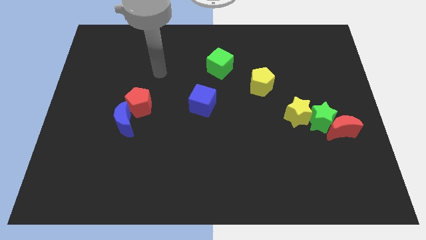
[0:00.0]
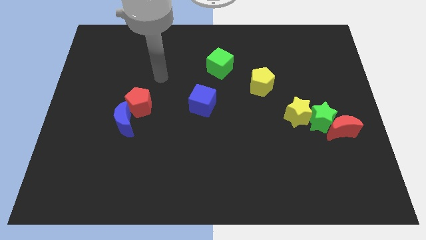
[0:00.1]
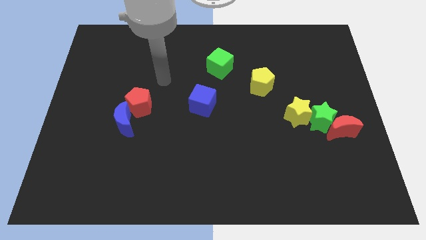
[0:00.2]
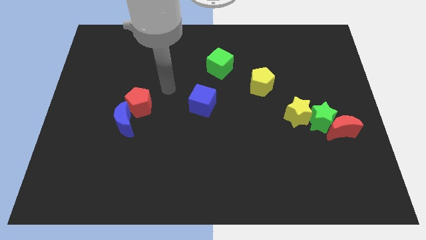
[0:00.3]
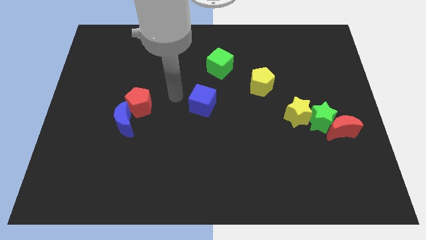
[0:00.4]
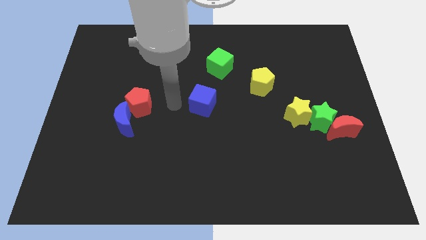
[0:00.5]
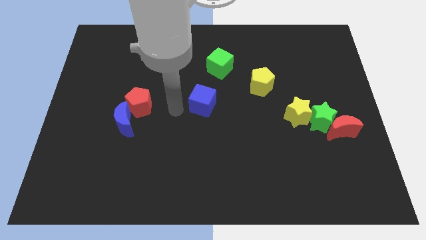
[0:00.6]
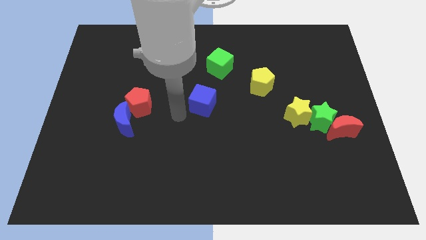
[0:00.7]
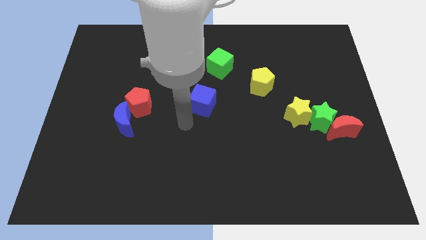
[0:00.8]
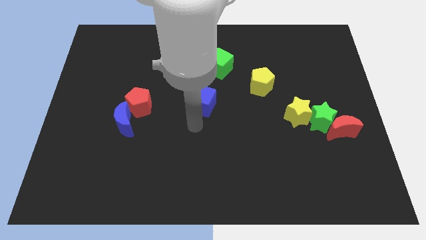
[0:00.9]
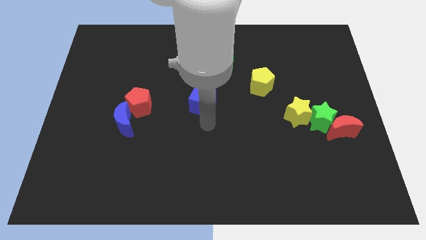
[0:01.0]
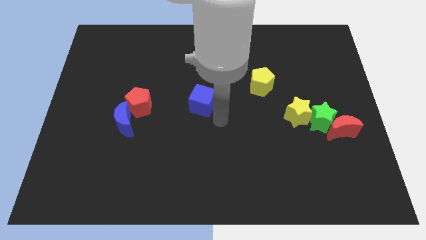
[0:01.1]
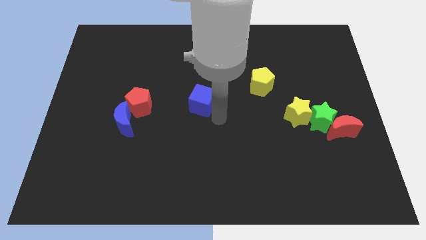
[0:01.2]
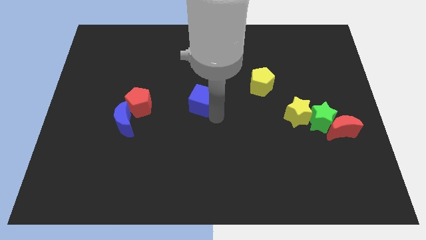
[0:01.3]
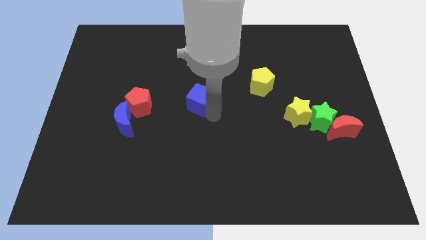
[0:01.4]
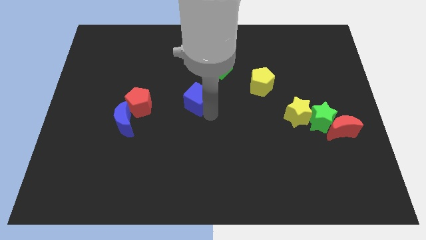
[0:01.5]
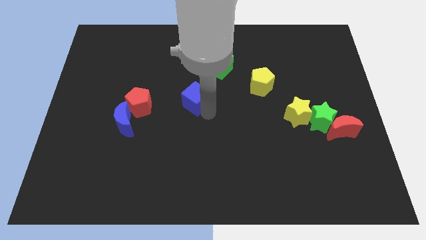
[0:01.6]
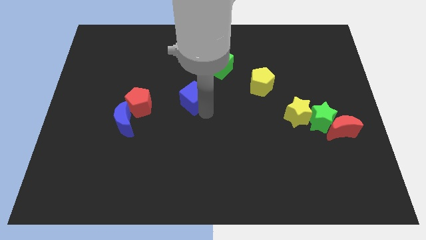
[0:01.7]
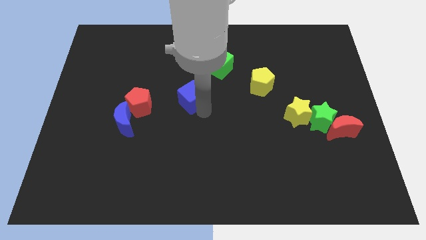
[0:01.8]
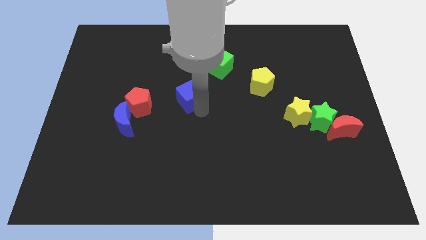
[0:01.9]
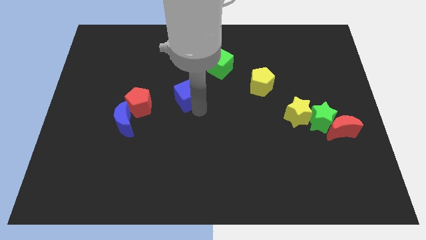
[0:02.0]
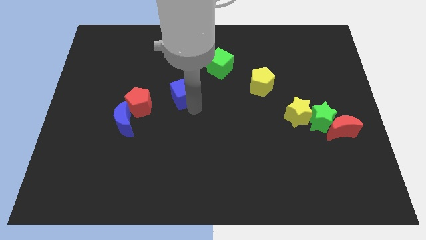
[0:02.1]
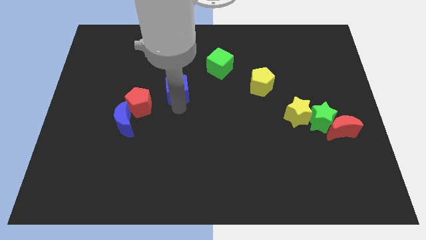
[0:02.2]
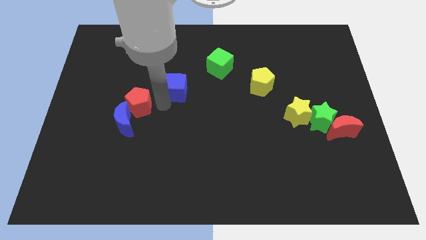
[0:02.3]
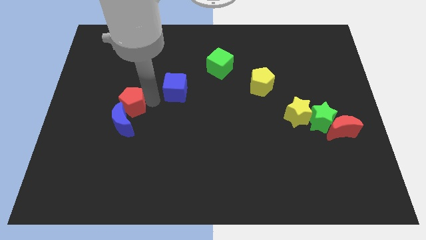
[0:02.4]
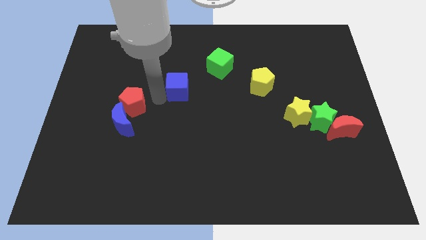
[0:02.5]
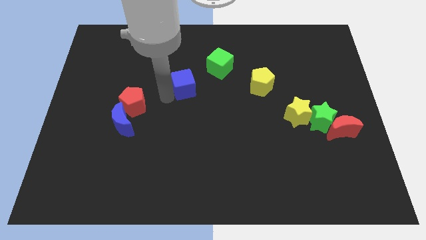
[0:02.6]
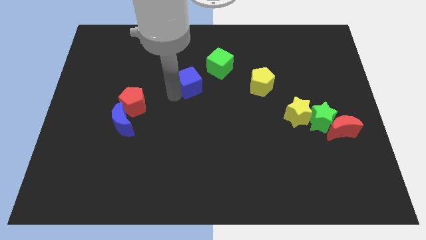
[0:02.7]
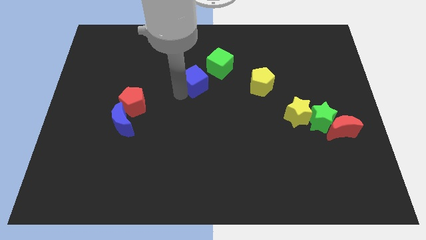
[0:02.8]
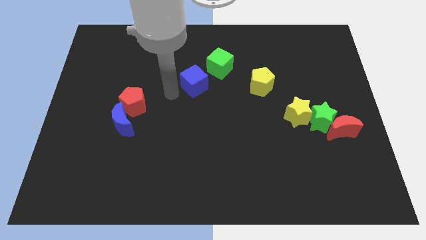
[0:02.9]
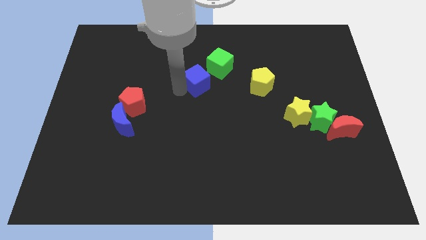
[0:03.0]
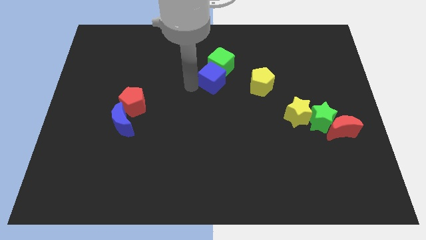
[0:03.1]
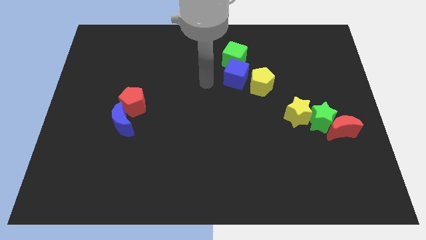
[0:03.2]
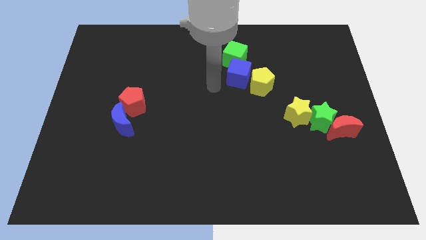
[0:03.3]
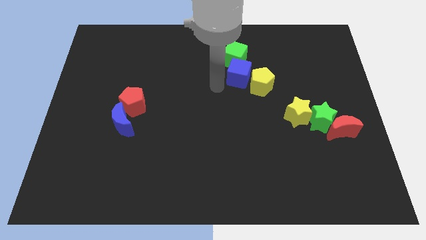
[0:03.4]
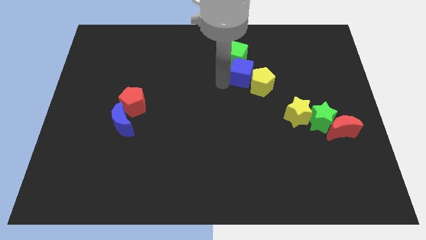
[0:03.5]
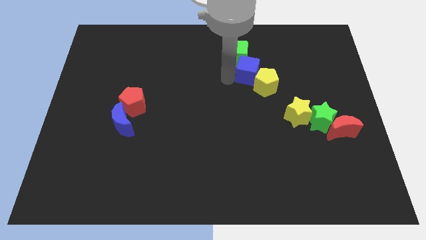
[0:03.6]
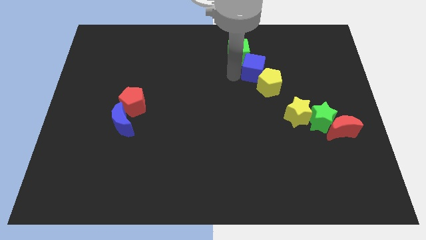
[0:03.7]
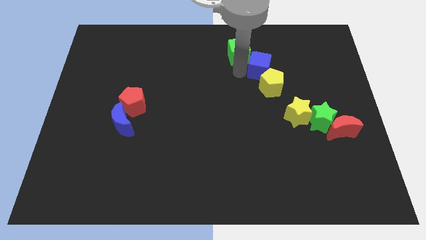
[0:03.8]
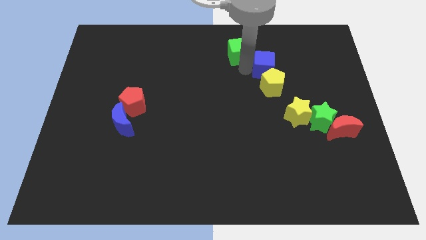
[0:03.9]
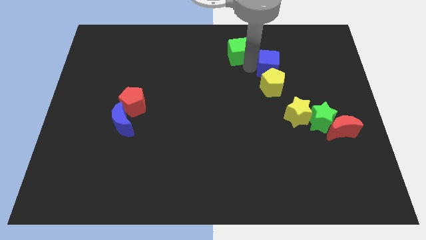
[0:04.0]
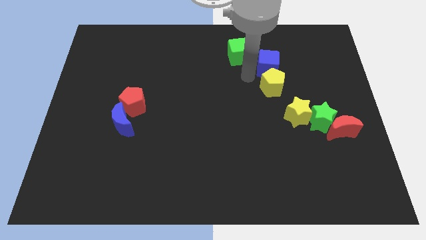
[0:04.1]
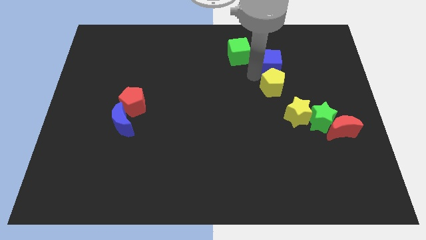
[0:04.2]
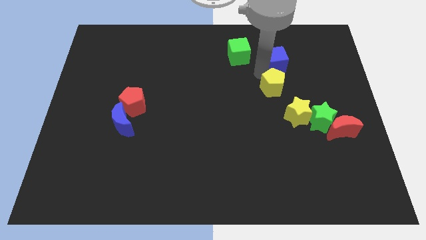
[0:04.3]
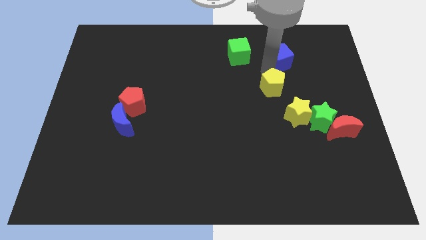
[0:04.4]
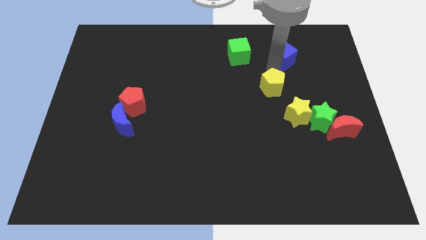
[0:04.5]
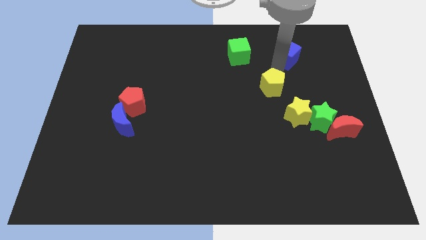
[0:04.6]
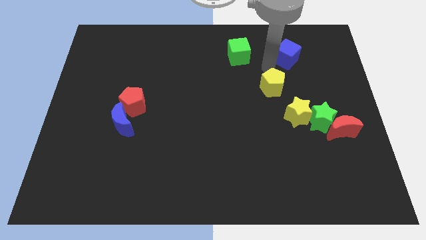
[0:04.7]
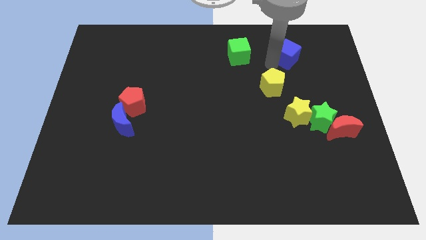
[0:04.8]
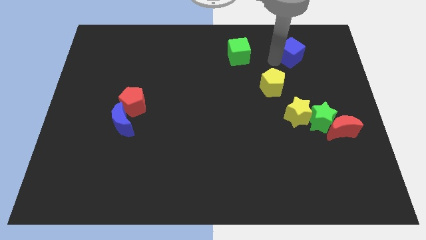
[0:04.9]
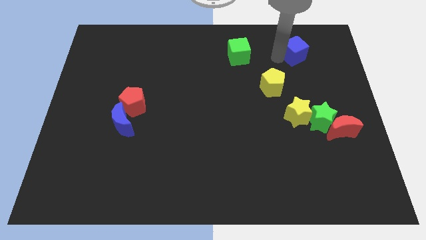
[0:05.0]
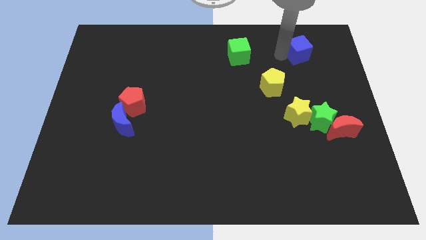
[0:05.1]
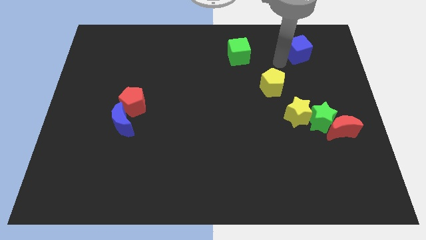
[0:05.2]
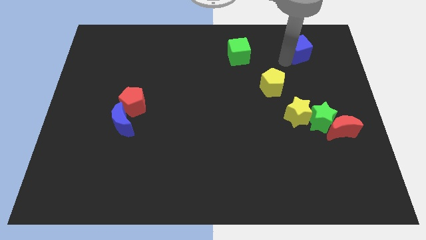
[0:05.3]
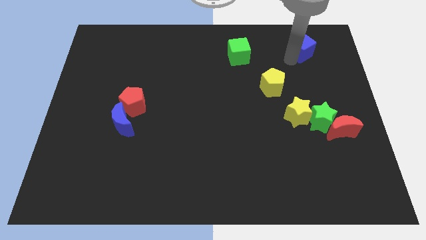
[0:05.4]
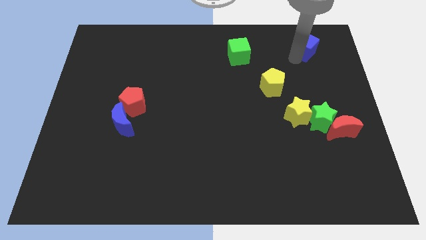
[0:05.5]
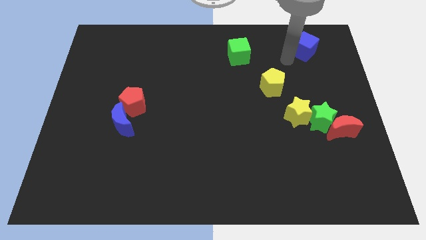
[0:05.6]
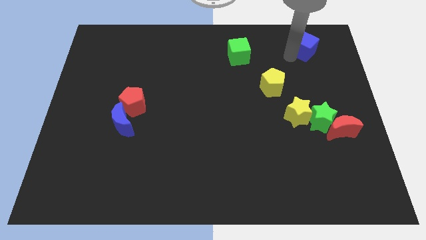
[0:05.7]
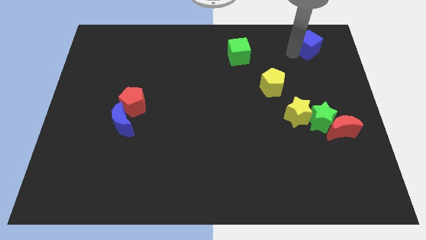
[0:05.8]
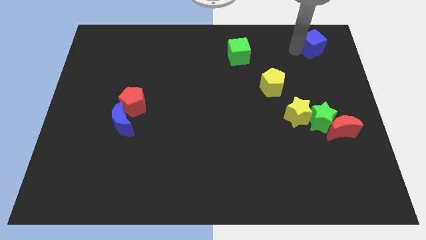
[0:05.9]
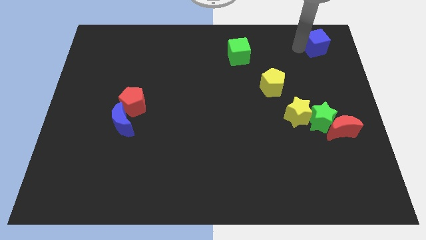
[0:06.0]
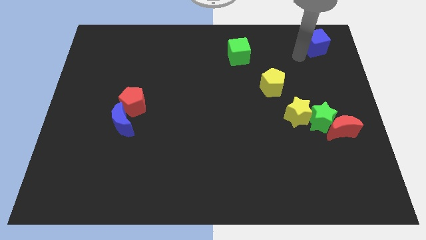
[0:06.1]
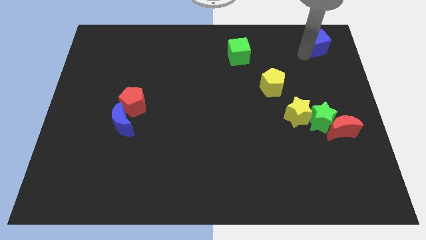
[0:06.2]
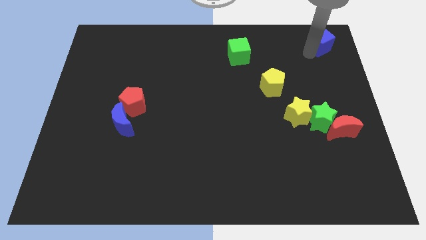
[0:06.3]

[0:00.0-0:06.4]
put the blue cube to the top right
